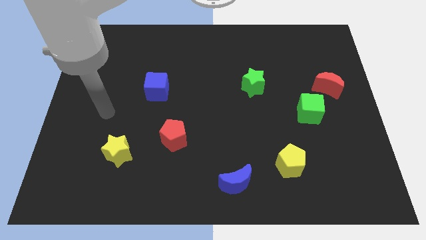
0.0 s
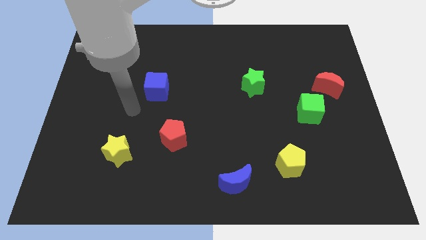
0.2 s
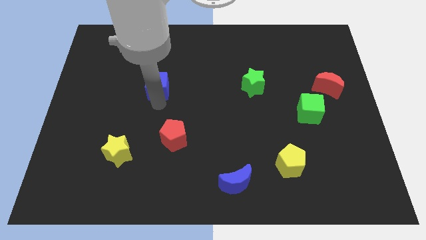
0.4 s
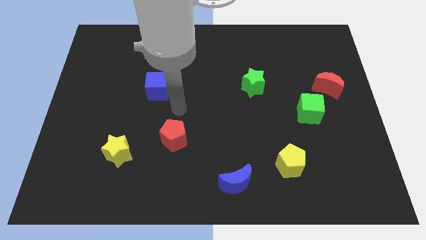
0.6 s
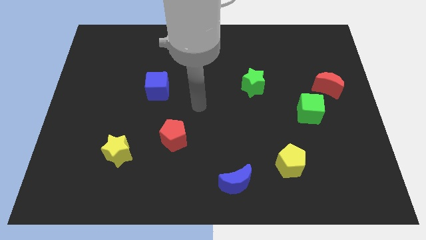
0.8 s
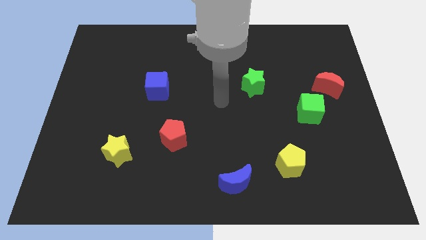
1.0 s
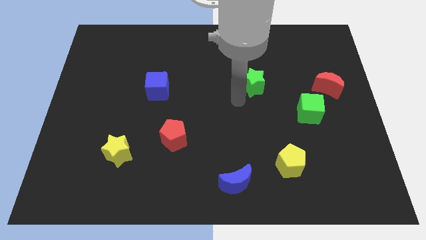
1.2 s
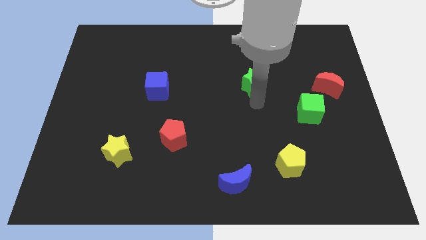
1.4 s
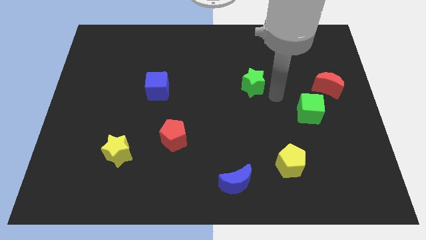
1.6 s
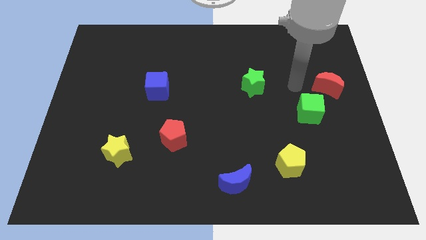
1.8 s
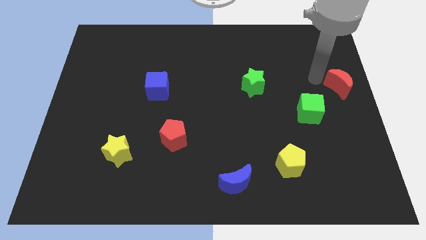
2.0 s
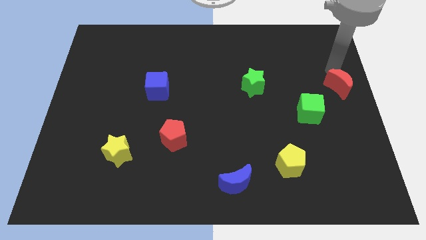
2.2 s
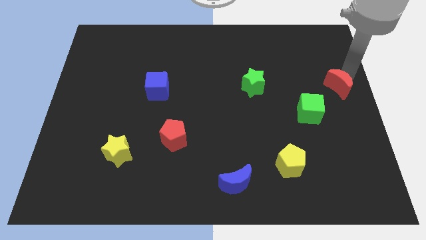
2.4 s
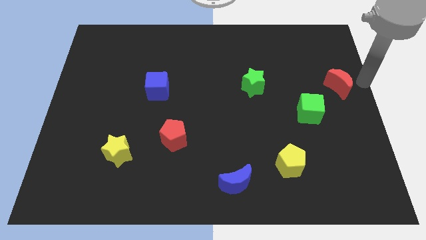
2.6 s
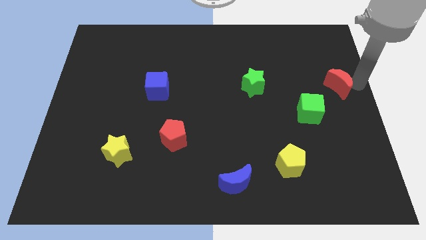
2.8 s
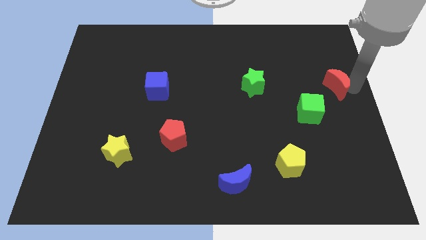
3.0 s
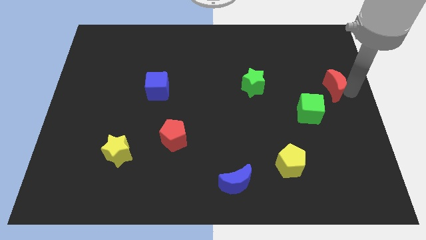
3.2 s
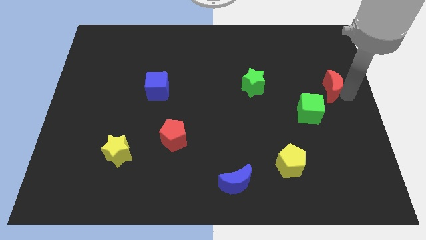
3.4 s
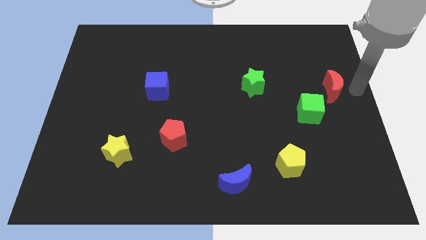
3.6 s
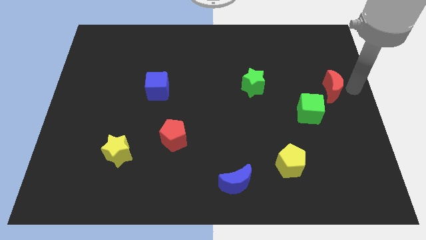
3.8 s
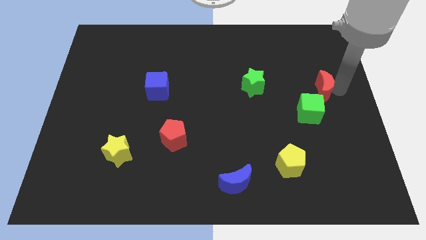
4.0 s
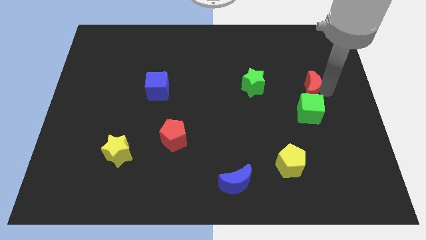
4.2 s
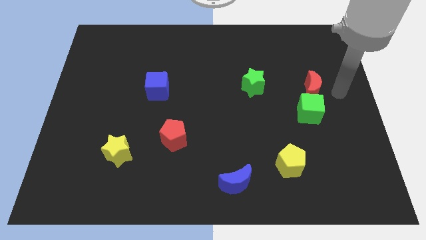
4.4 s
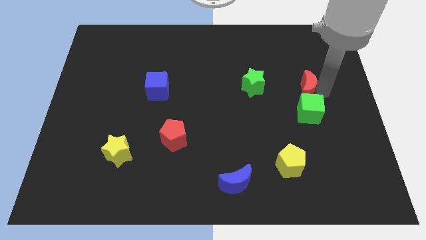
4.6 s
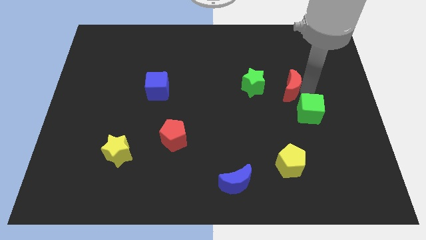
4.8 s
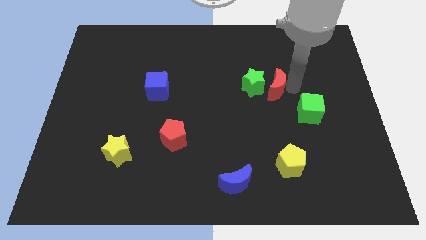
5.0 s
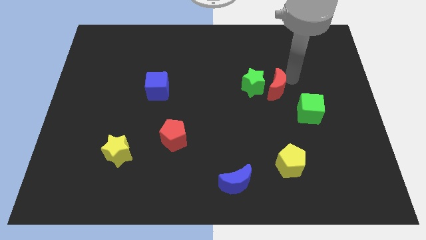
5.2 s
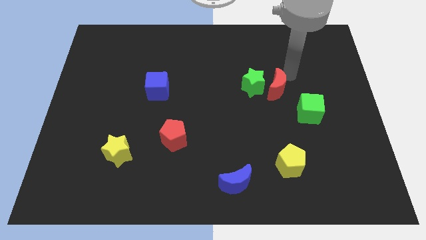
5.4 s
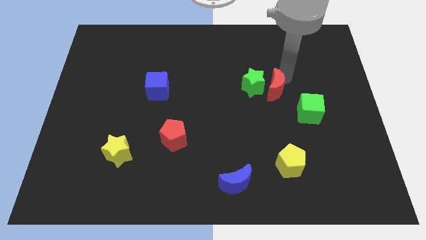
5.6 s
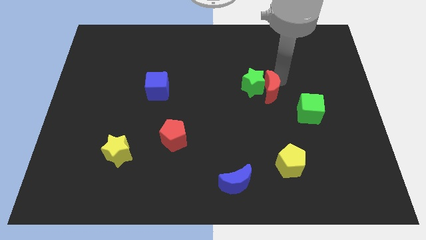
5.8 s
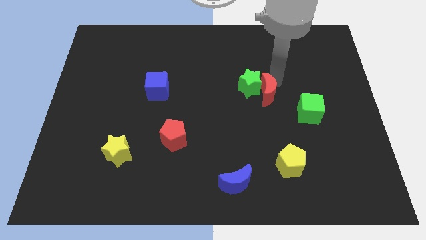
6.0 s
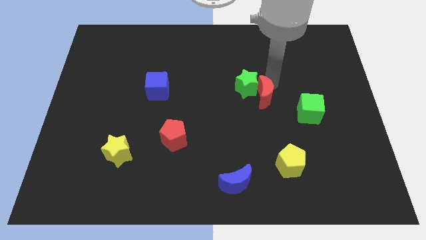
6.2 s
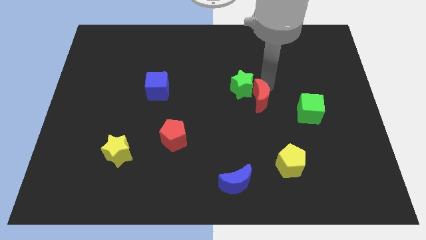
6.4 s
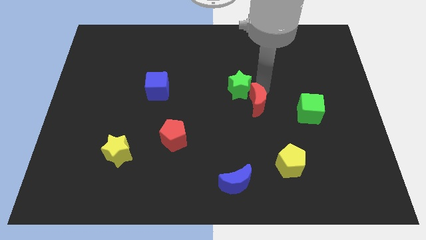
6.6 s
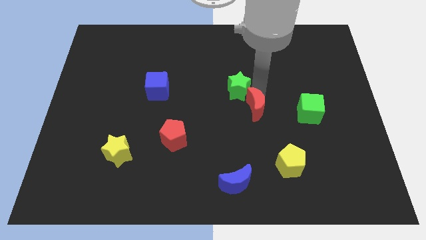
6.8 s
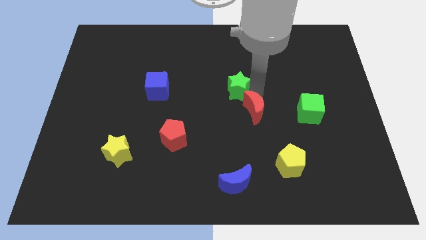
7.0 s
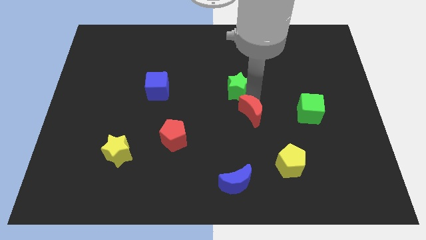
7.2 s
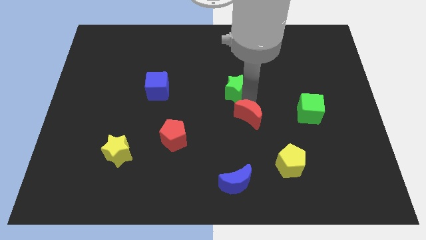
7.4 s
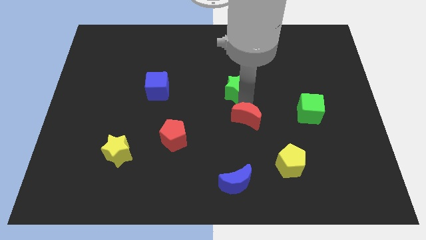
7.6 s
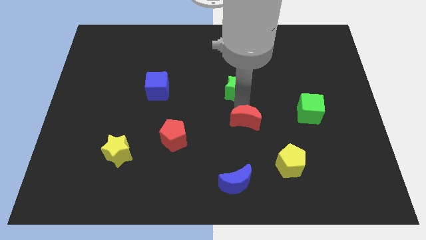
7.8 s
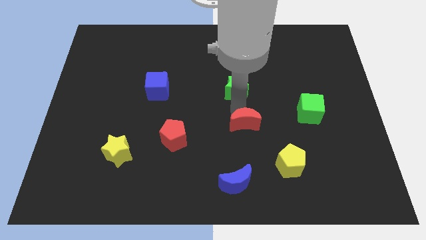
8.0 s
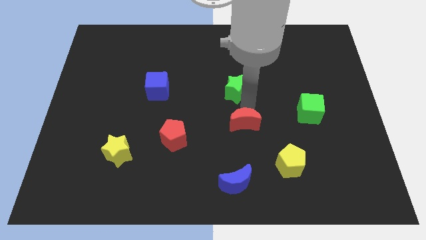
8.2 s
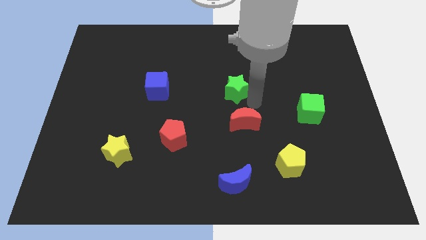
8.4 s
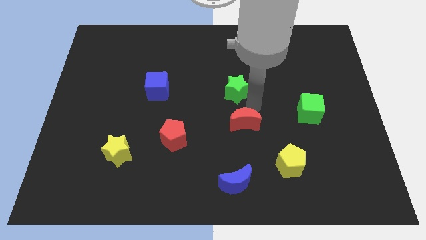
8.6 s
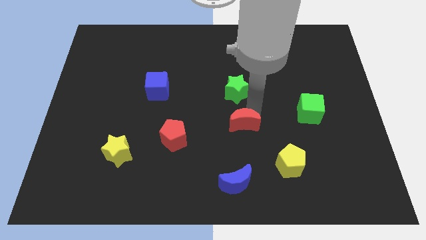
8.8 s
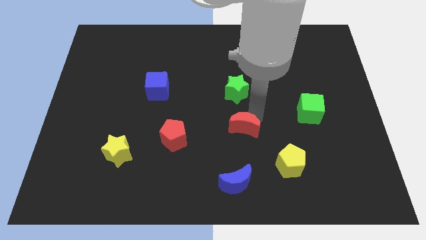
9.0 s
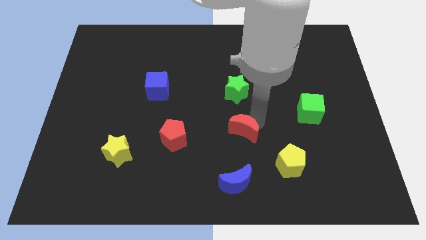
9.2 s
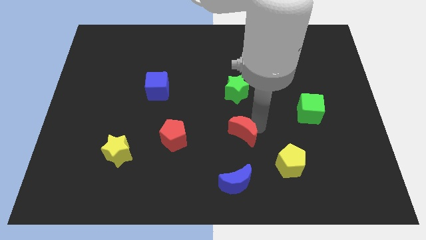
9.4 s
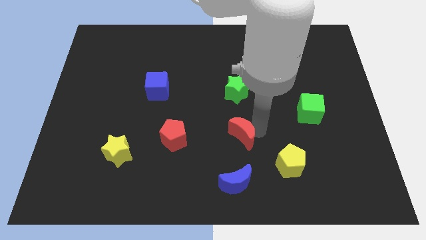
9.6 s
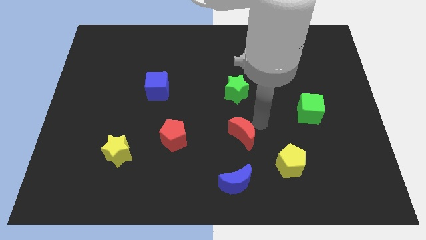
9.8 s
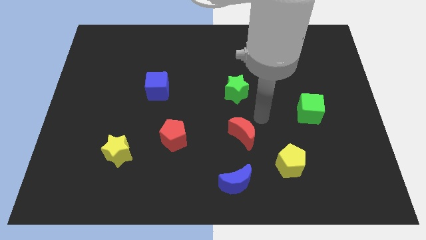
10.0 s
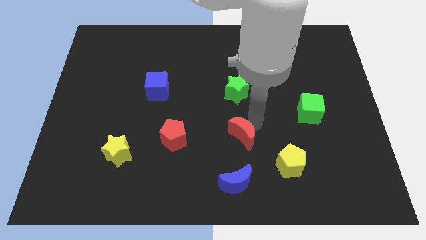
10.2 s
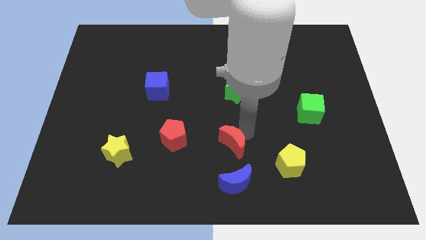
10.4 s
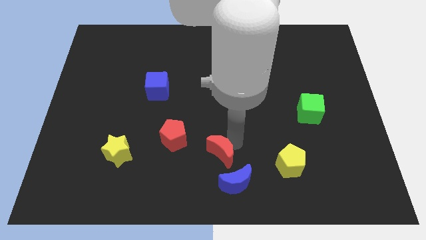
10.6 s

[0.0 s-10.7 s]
push the red moon to the top left of the blue moon

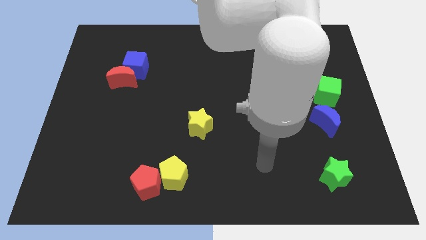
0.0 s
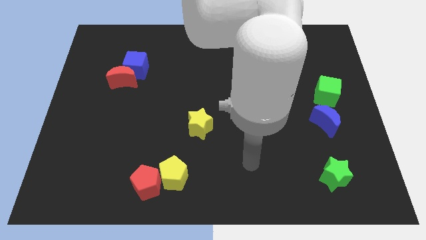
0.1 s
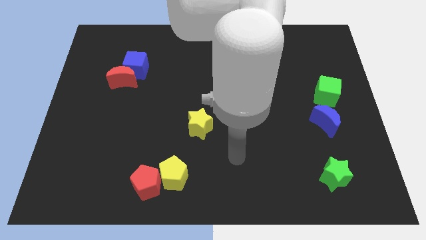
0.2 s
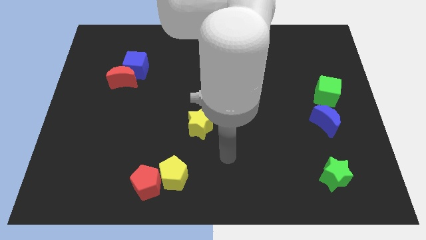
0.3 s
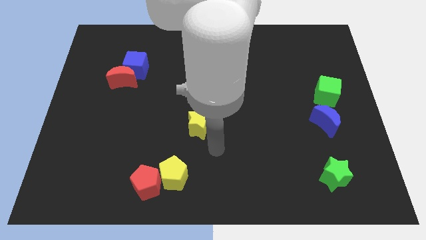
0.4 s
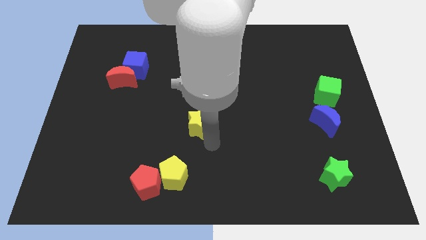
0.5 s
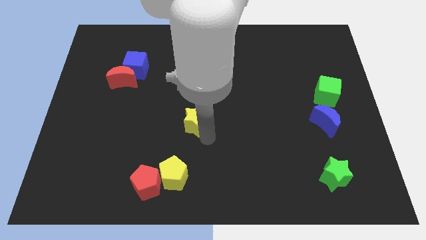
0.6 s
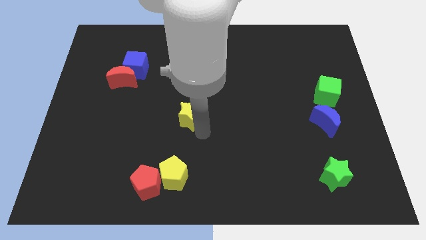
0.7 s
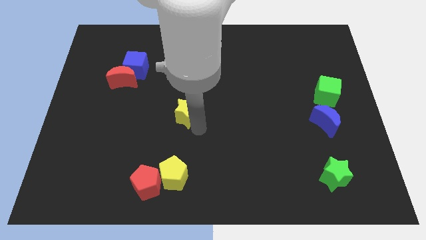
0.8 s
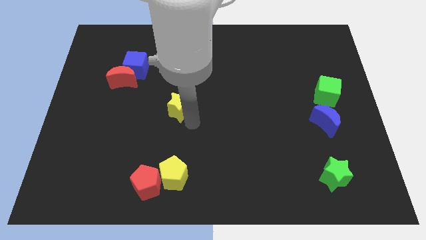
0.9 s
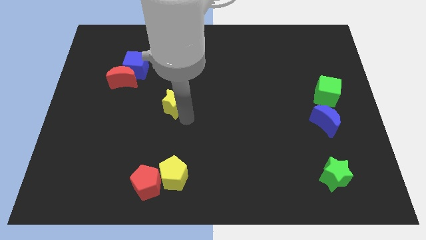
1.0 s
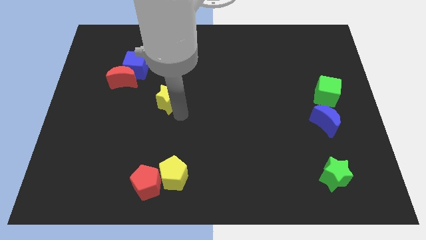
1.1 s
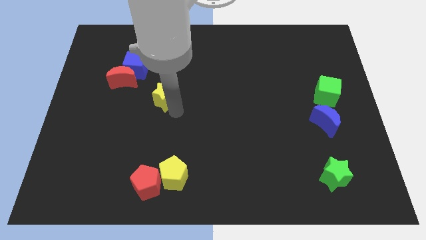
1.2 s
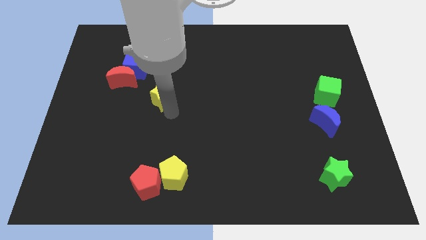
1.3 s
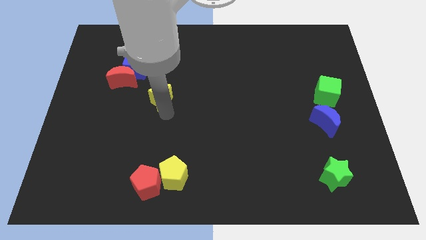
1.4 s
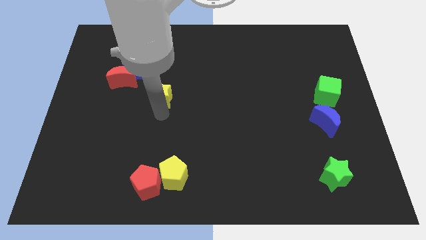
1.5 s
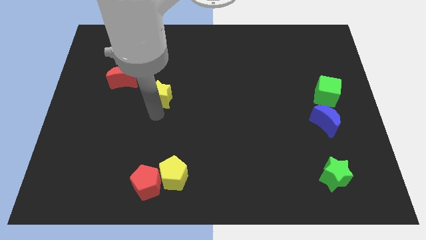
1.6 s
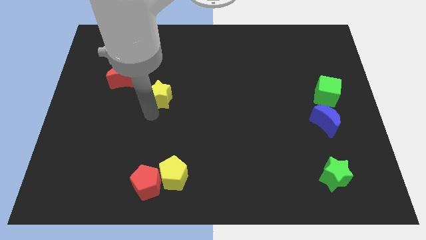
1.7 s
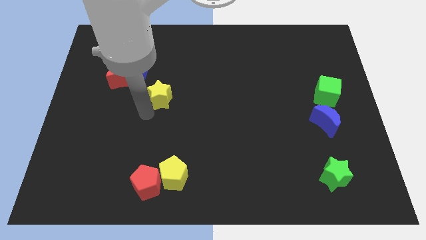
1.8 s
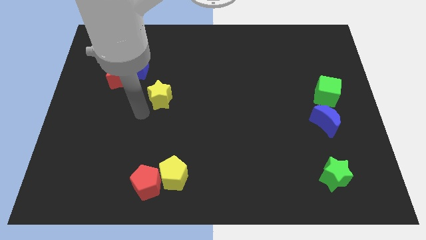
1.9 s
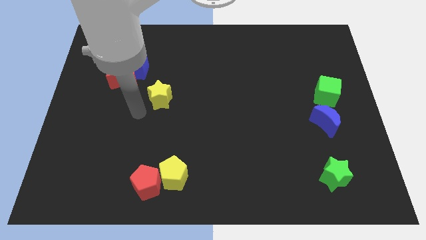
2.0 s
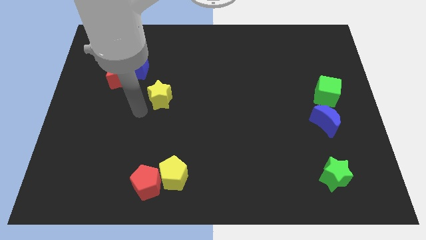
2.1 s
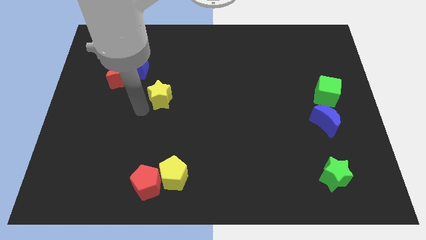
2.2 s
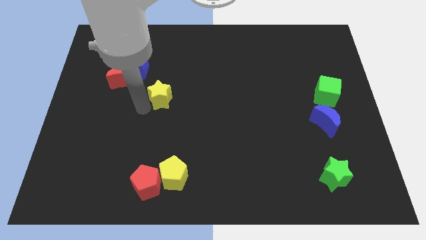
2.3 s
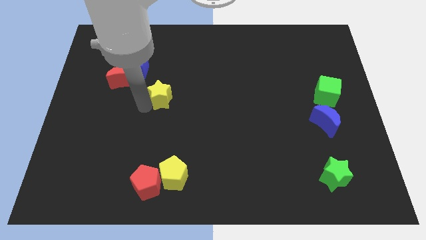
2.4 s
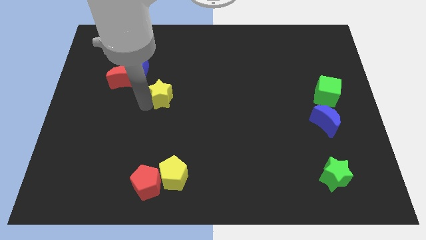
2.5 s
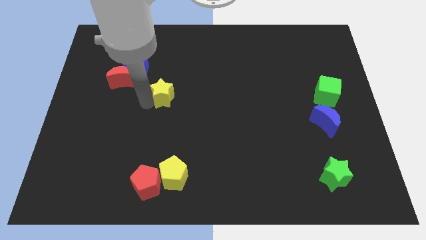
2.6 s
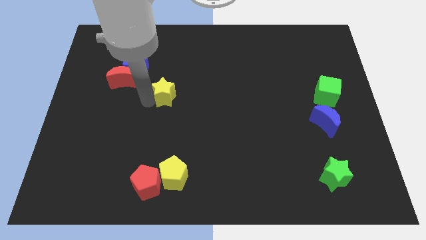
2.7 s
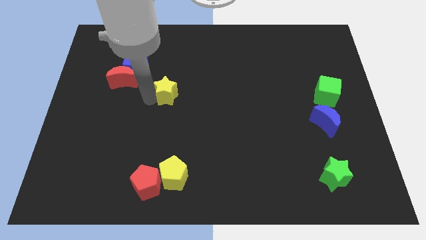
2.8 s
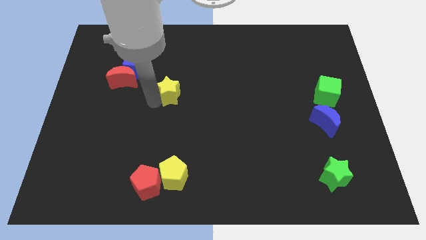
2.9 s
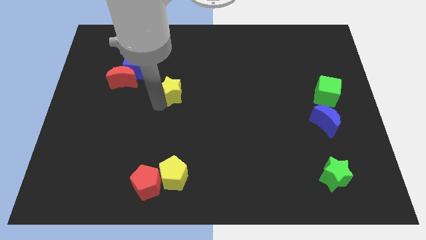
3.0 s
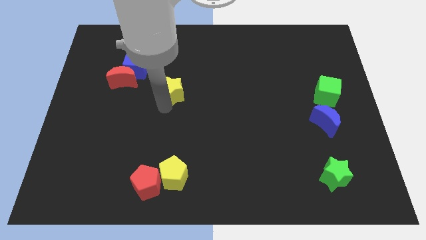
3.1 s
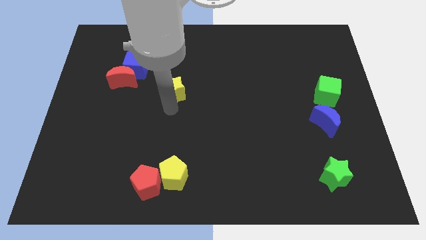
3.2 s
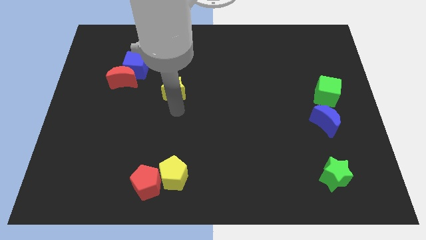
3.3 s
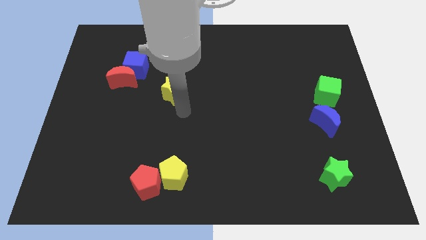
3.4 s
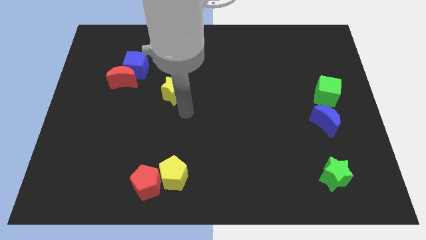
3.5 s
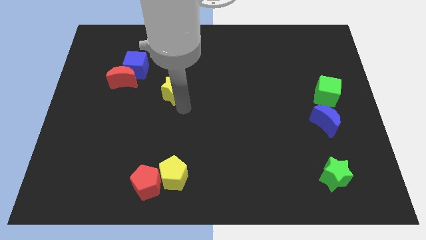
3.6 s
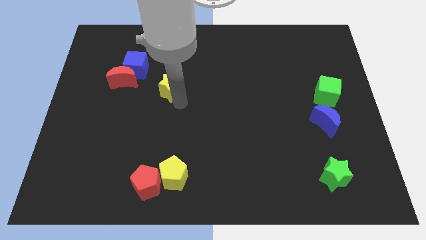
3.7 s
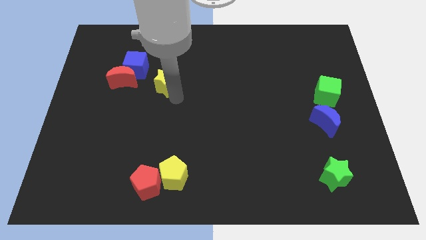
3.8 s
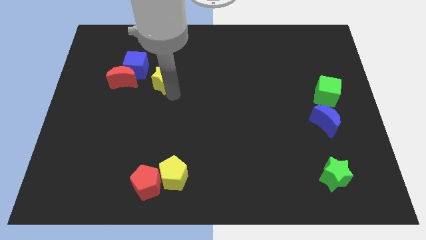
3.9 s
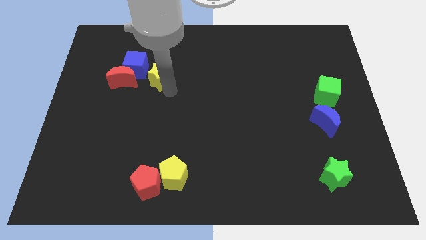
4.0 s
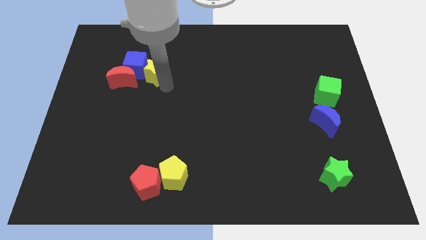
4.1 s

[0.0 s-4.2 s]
slide the yellow star to the top right of the red moon
